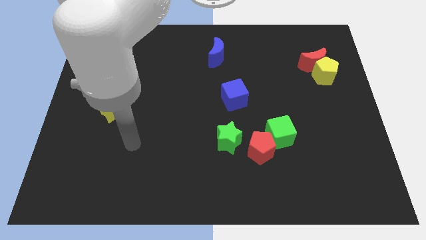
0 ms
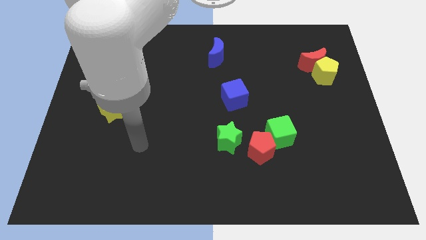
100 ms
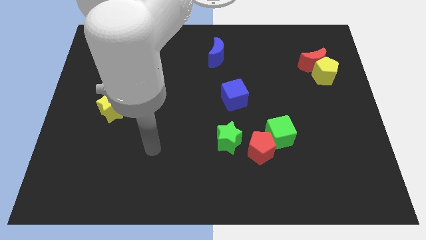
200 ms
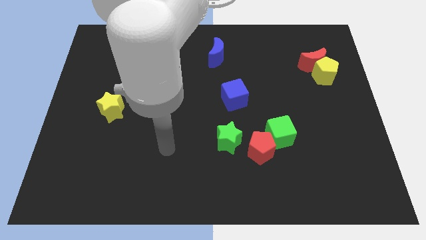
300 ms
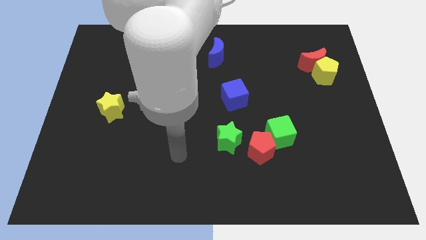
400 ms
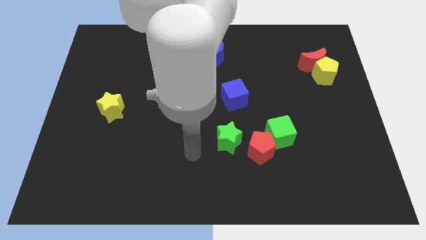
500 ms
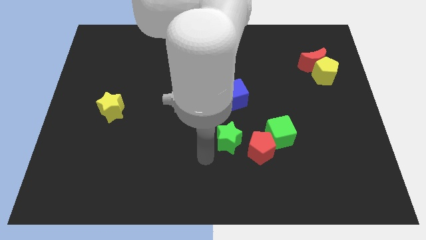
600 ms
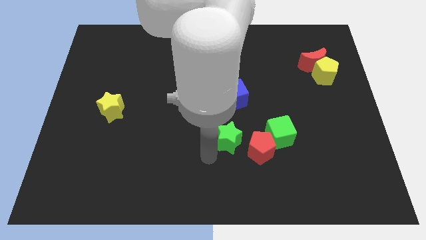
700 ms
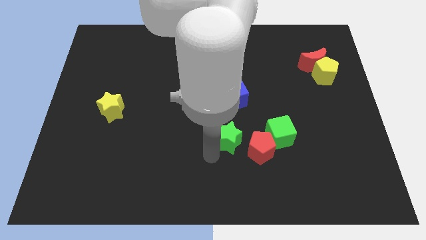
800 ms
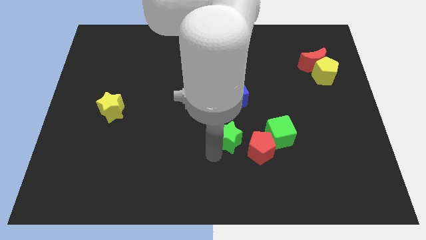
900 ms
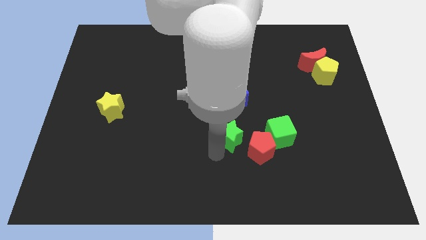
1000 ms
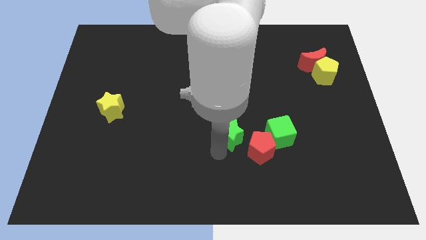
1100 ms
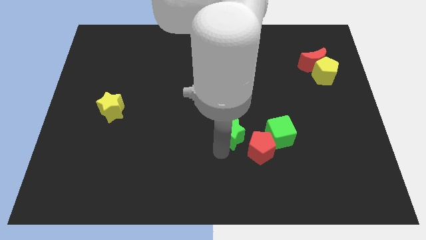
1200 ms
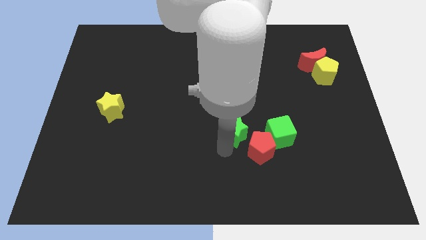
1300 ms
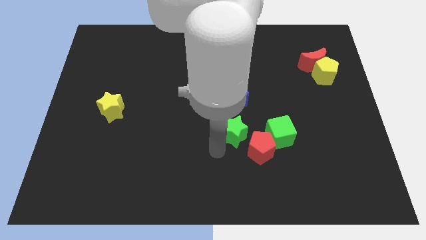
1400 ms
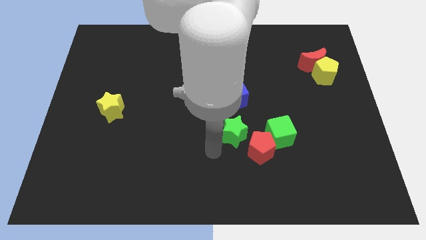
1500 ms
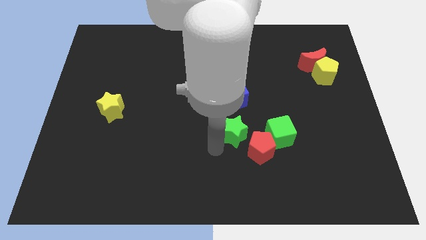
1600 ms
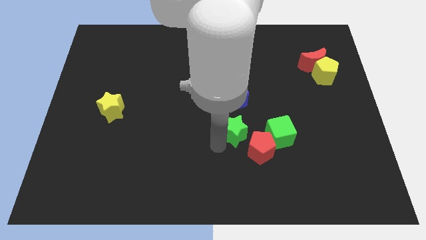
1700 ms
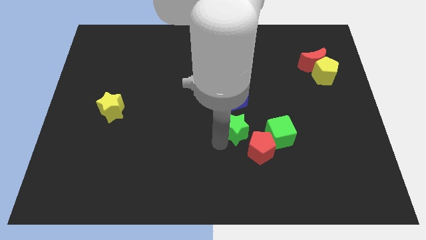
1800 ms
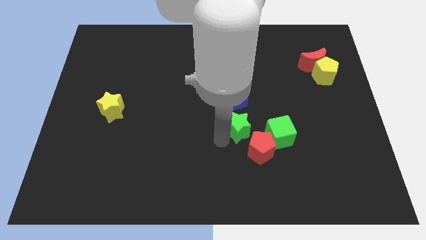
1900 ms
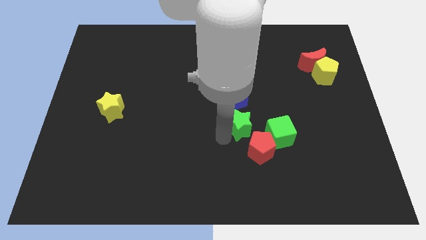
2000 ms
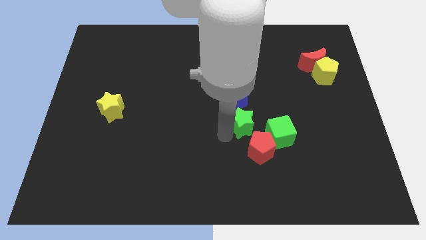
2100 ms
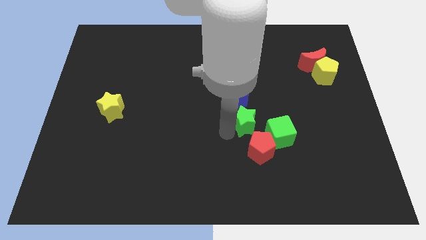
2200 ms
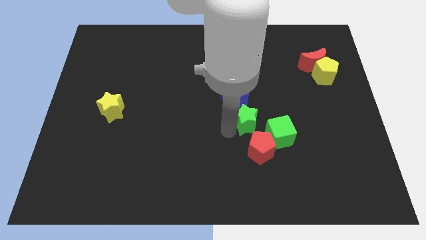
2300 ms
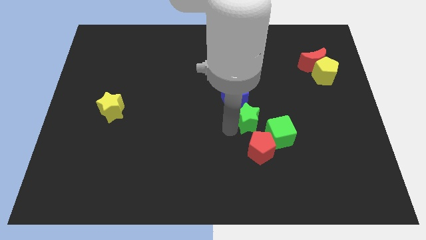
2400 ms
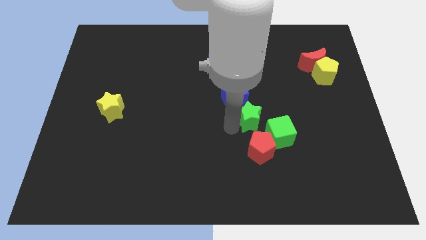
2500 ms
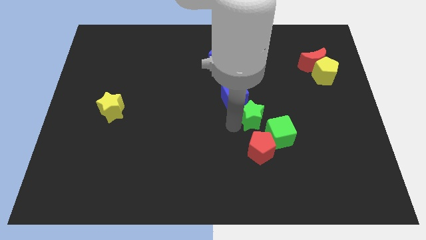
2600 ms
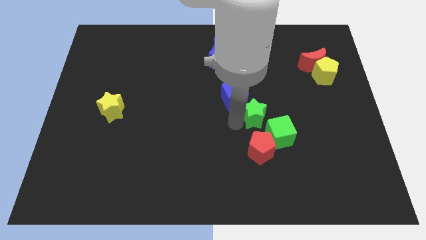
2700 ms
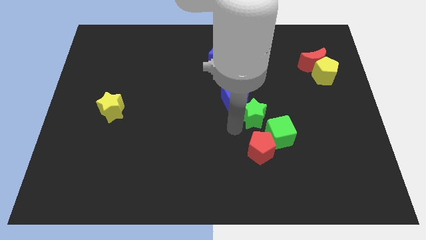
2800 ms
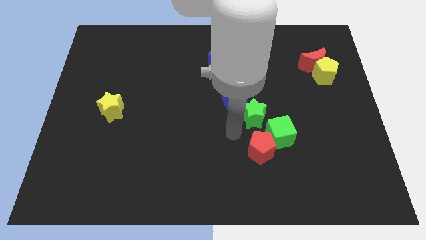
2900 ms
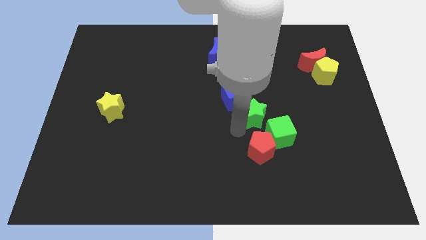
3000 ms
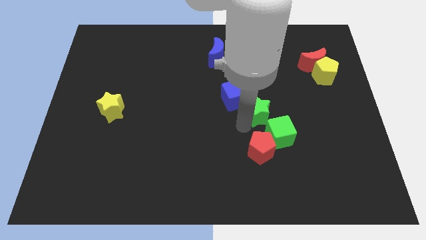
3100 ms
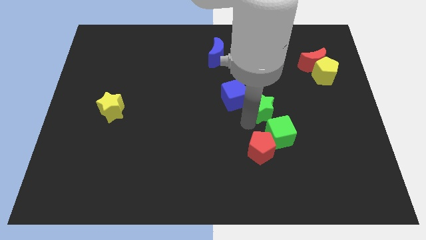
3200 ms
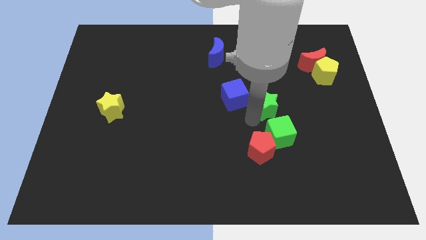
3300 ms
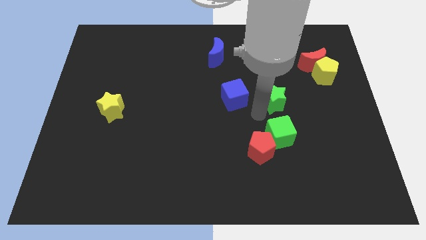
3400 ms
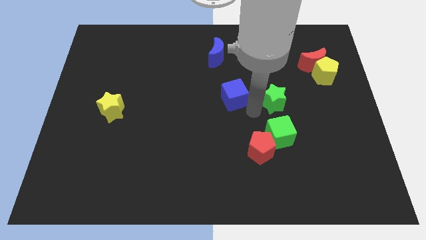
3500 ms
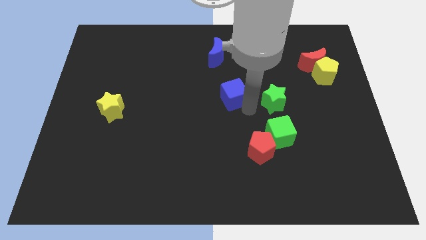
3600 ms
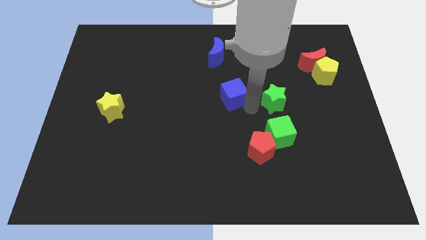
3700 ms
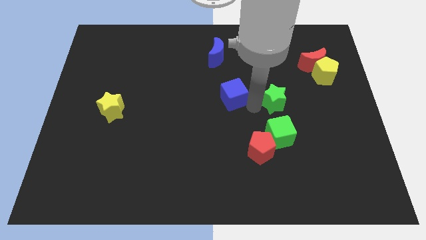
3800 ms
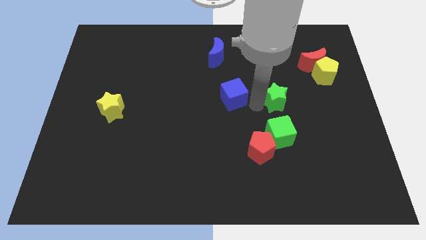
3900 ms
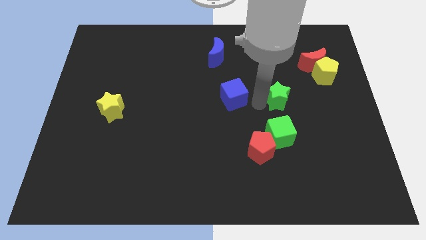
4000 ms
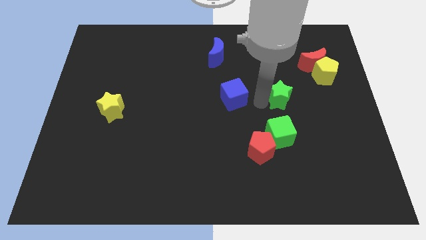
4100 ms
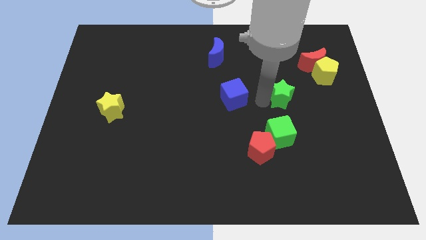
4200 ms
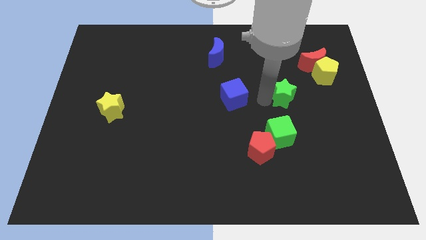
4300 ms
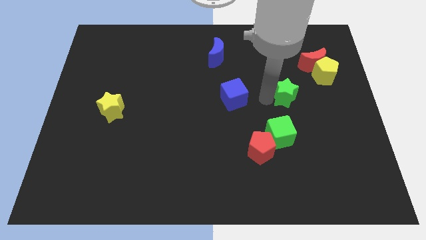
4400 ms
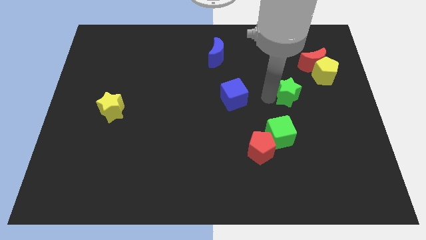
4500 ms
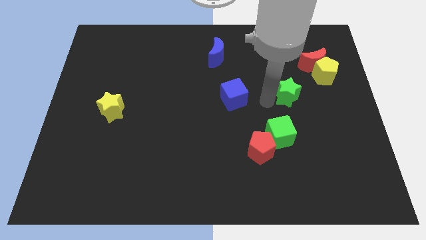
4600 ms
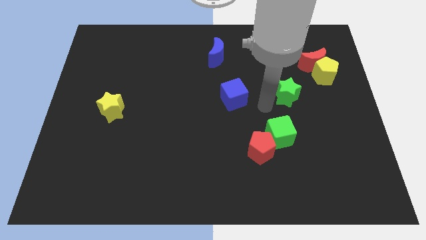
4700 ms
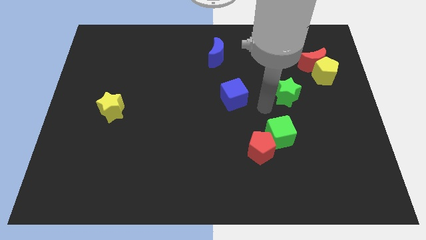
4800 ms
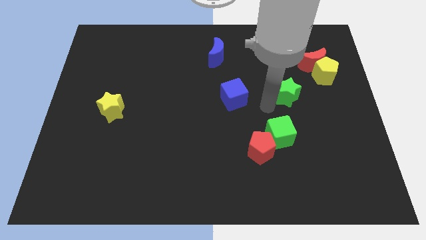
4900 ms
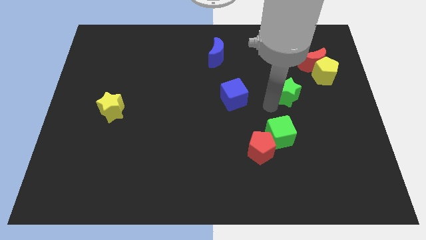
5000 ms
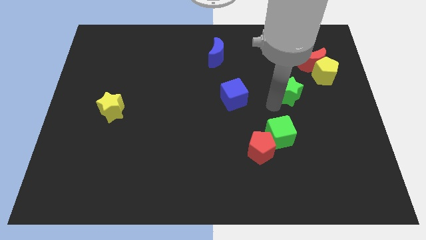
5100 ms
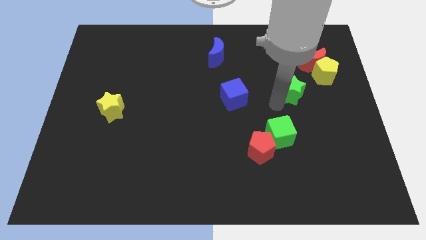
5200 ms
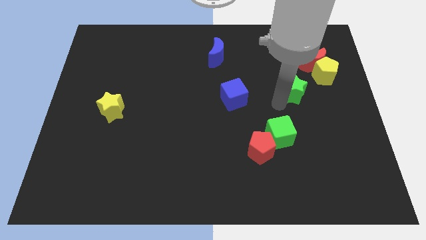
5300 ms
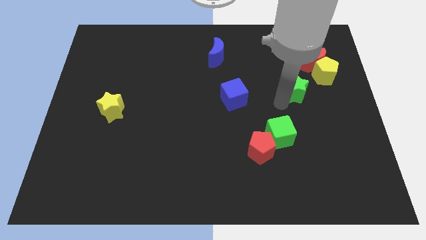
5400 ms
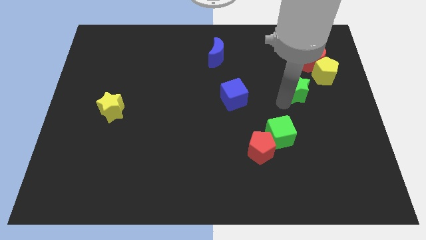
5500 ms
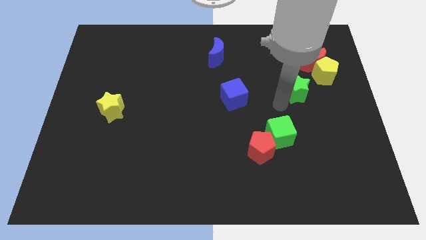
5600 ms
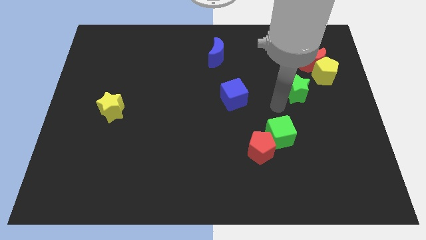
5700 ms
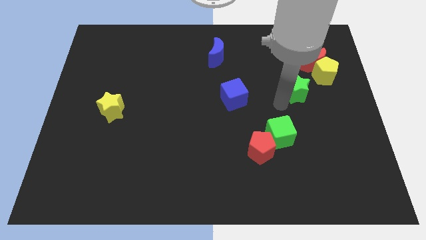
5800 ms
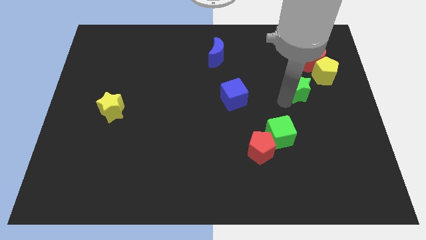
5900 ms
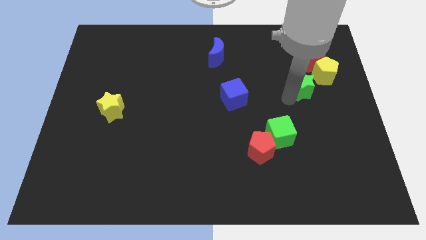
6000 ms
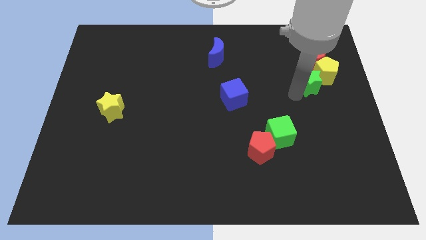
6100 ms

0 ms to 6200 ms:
put the green star to the yellow pentagon

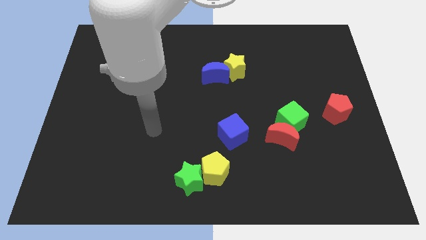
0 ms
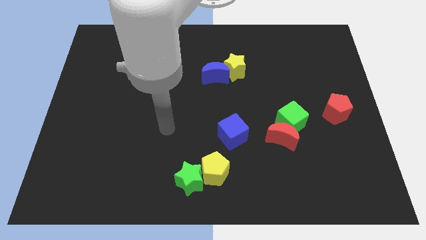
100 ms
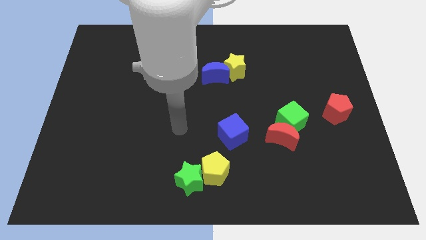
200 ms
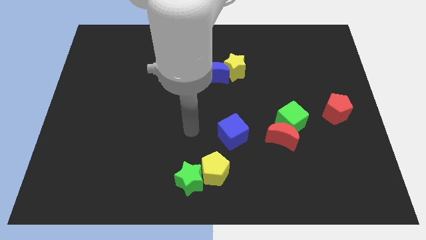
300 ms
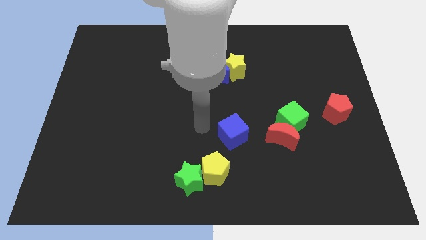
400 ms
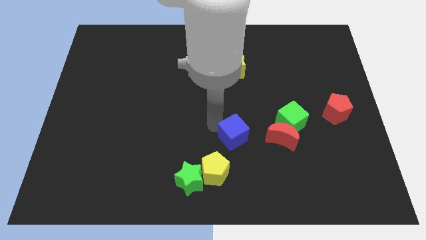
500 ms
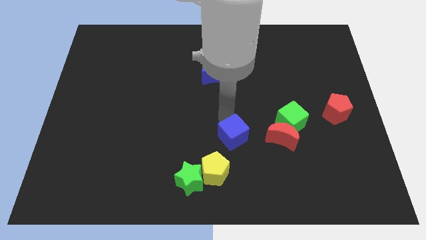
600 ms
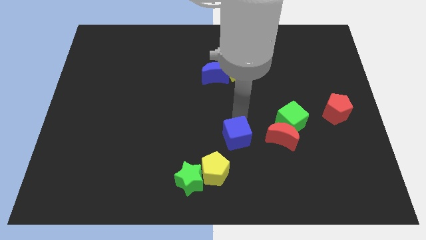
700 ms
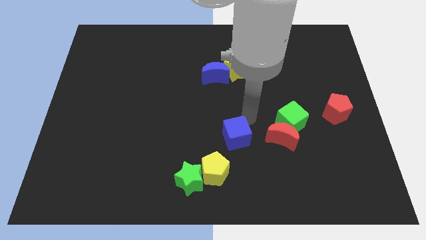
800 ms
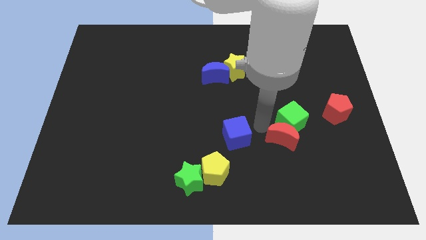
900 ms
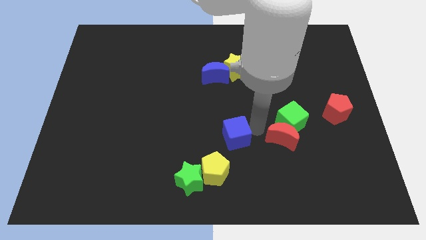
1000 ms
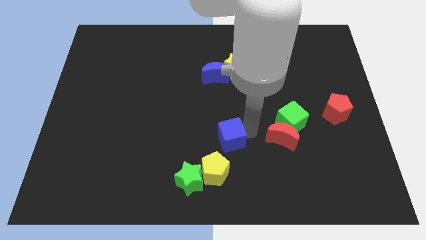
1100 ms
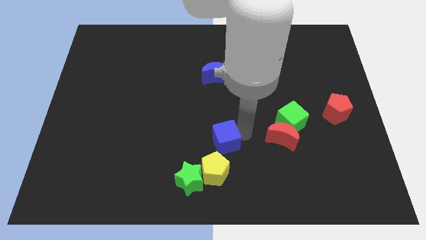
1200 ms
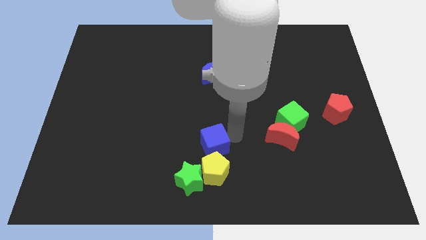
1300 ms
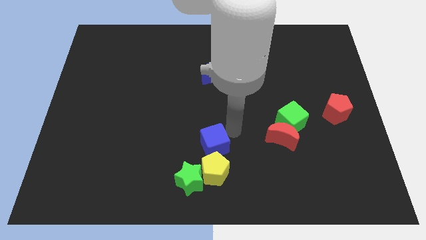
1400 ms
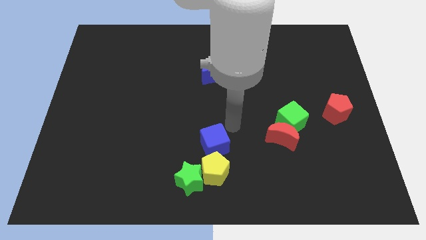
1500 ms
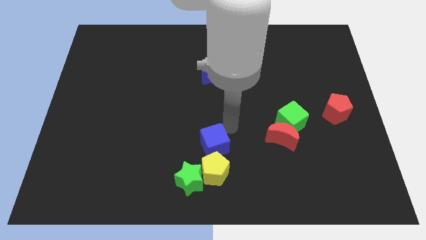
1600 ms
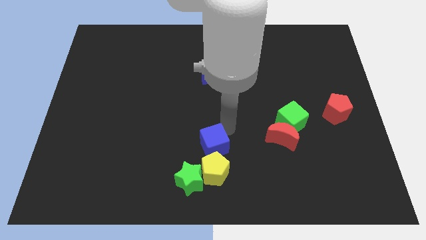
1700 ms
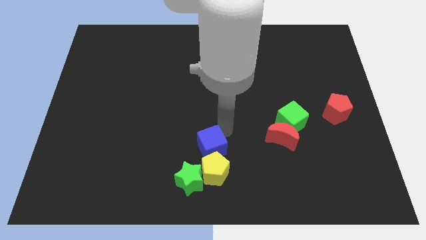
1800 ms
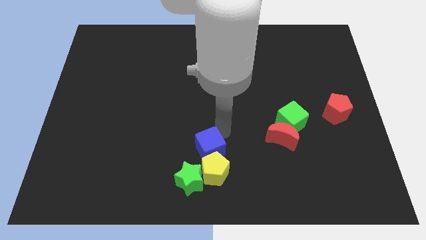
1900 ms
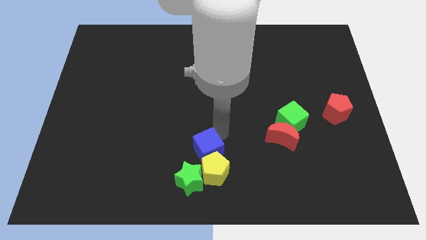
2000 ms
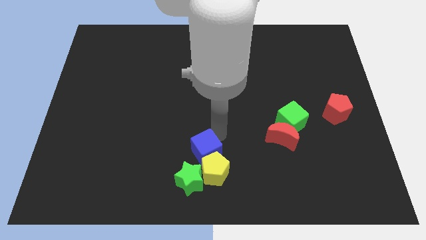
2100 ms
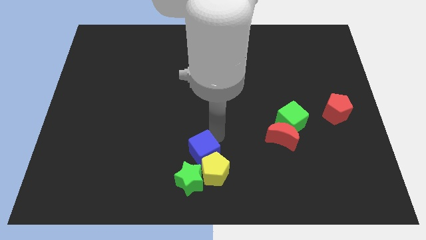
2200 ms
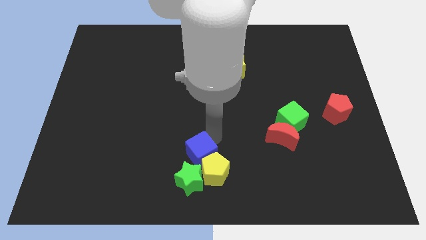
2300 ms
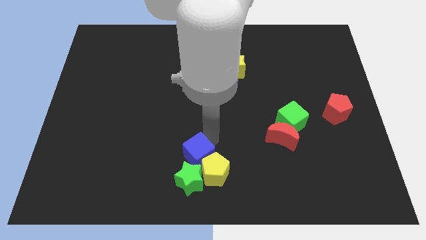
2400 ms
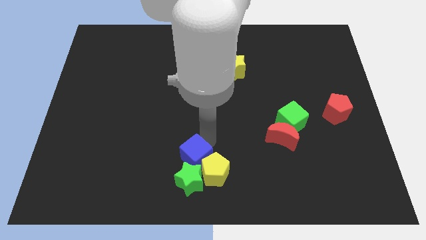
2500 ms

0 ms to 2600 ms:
move the blue cube to the green star
